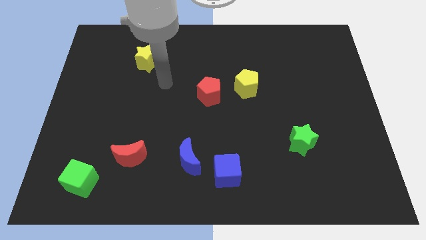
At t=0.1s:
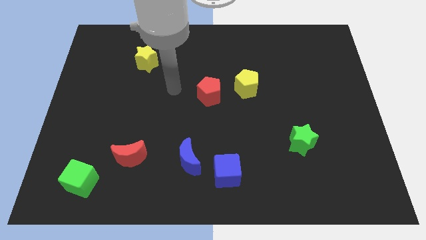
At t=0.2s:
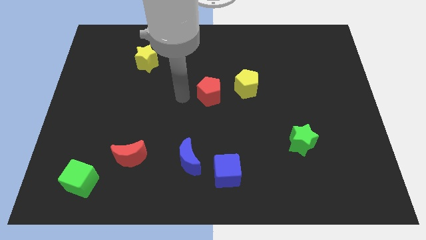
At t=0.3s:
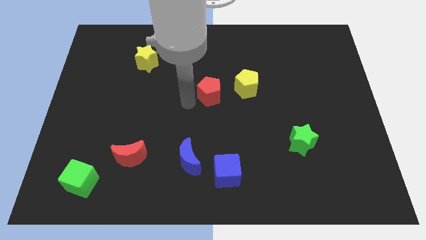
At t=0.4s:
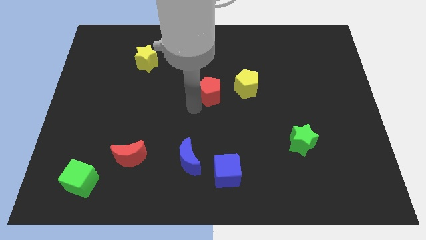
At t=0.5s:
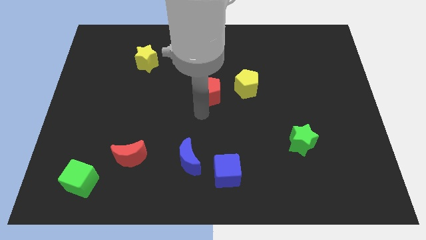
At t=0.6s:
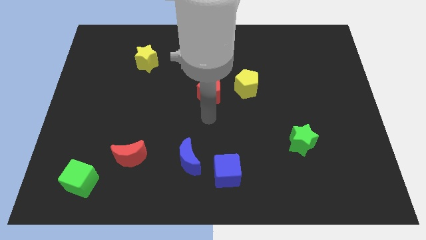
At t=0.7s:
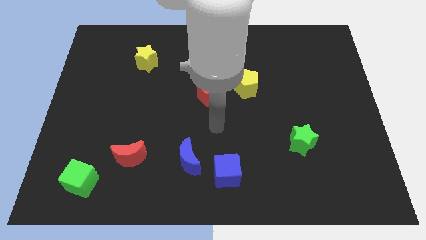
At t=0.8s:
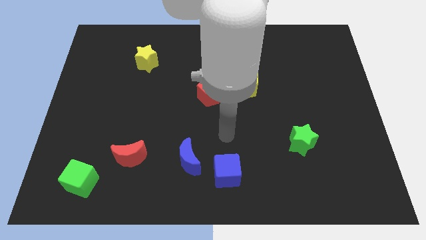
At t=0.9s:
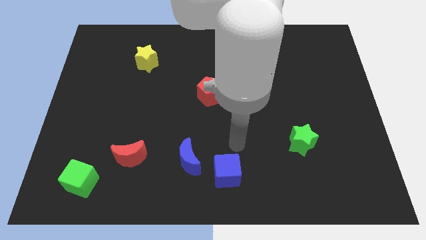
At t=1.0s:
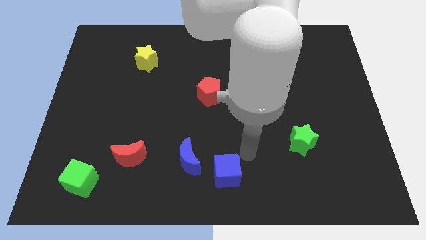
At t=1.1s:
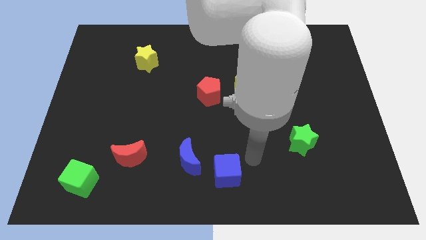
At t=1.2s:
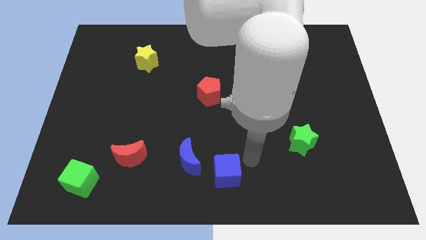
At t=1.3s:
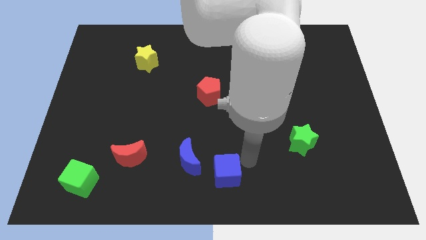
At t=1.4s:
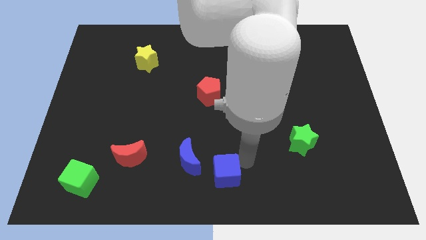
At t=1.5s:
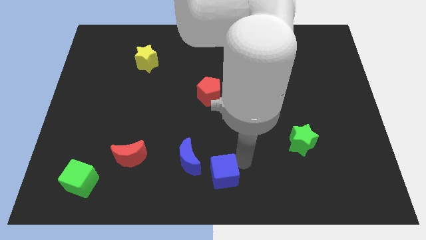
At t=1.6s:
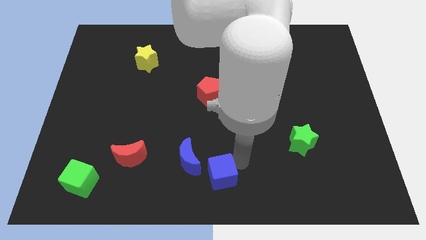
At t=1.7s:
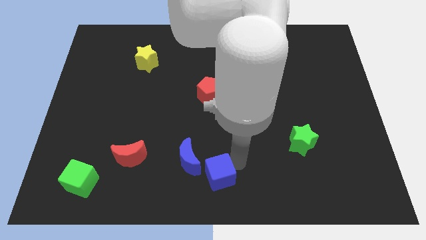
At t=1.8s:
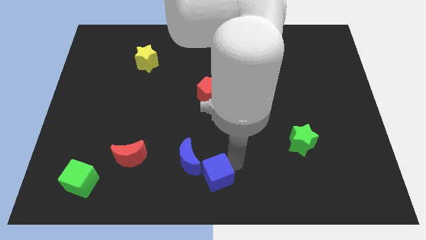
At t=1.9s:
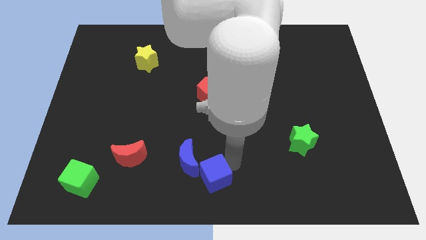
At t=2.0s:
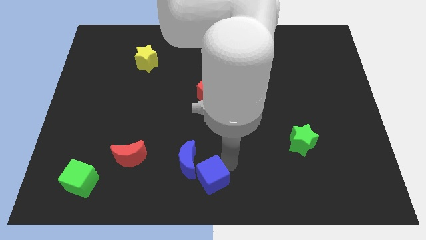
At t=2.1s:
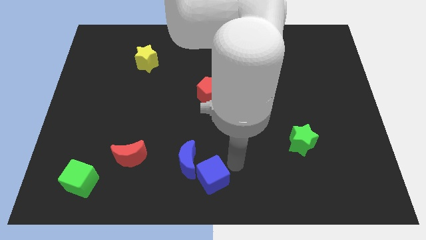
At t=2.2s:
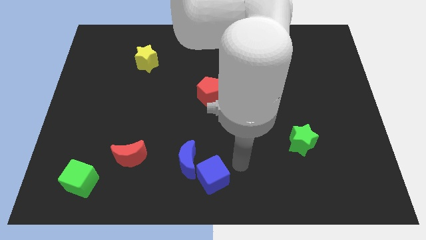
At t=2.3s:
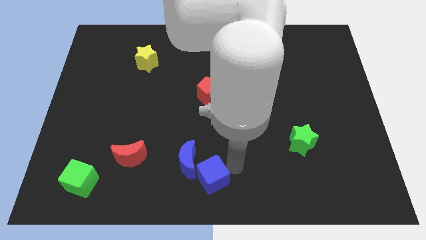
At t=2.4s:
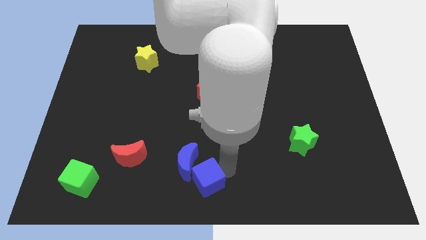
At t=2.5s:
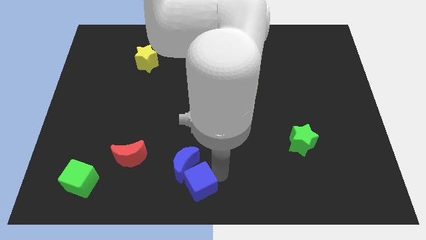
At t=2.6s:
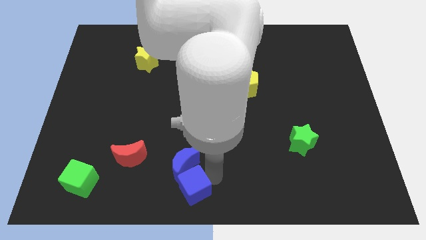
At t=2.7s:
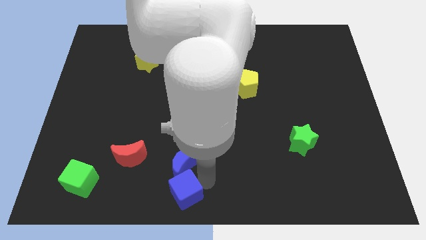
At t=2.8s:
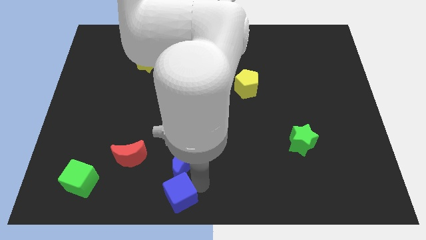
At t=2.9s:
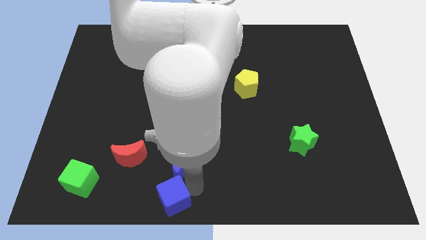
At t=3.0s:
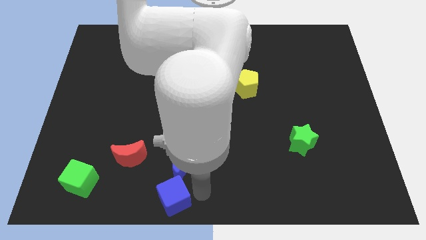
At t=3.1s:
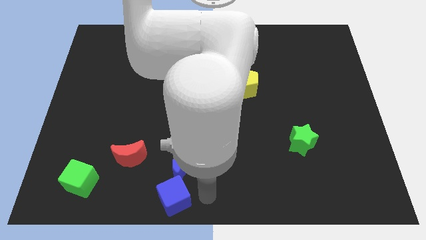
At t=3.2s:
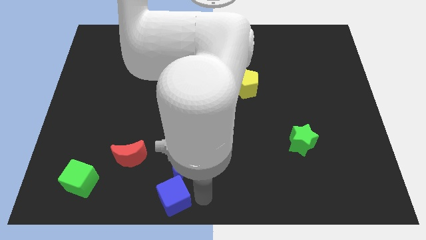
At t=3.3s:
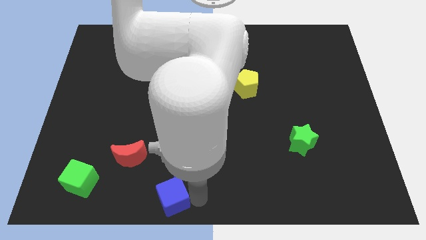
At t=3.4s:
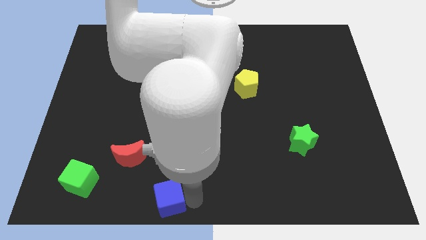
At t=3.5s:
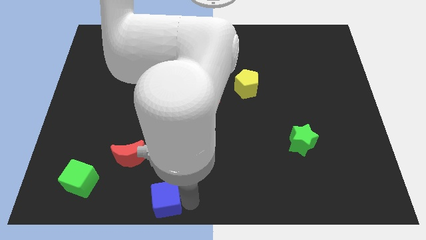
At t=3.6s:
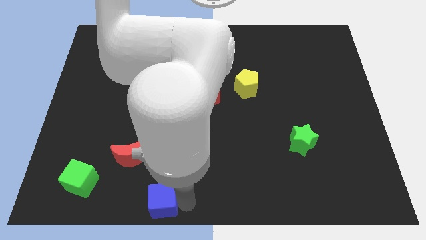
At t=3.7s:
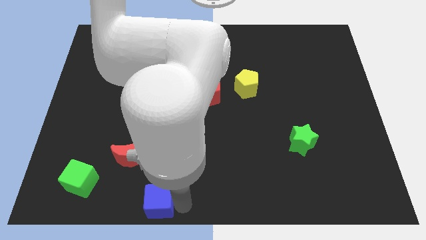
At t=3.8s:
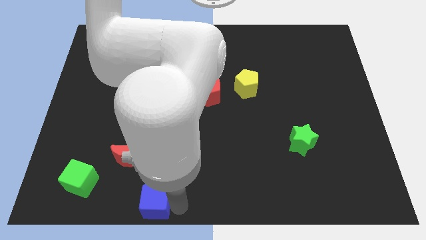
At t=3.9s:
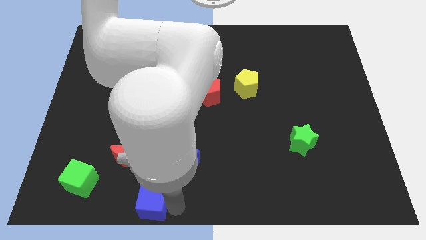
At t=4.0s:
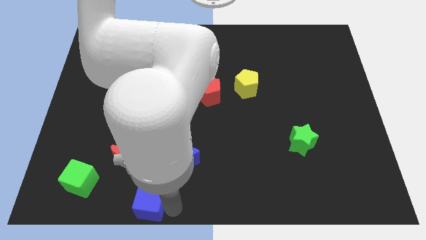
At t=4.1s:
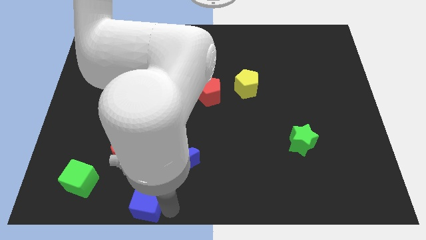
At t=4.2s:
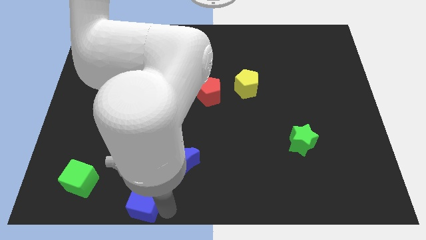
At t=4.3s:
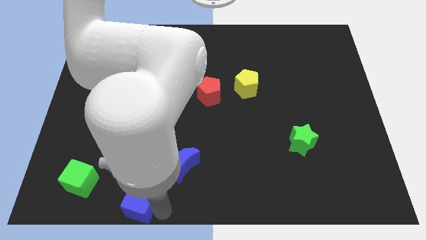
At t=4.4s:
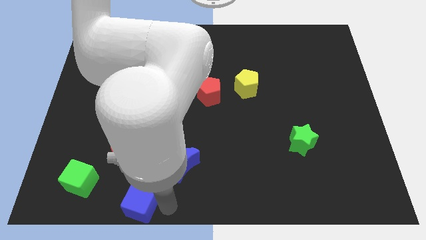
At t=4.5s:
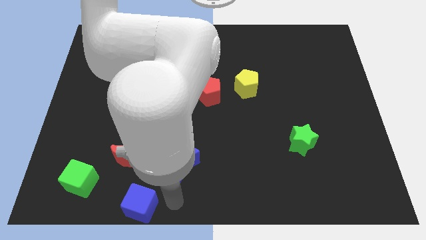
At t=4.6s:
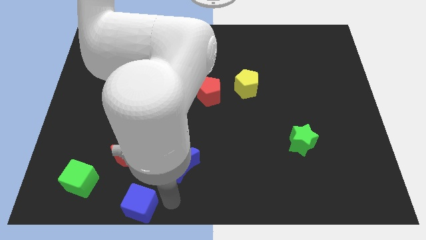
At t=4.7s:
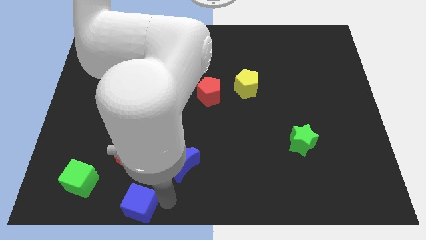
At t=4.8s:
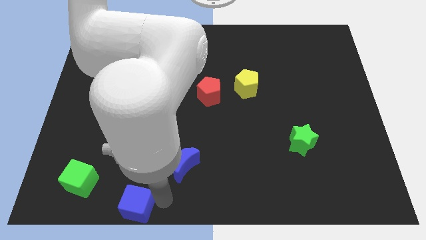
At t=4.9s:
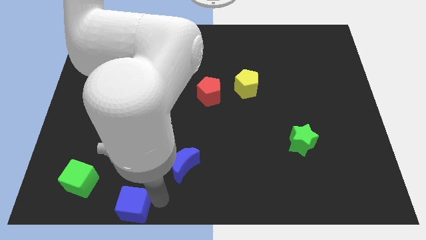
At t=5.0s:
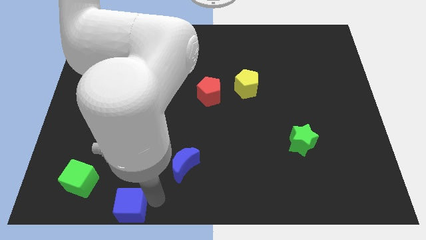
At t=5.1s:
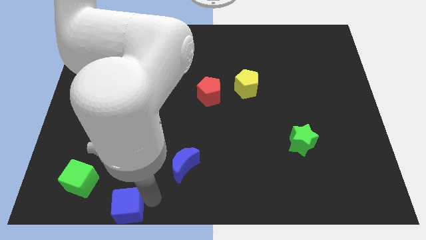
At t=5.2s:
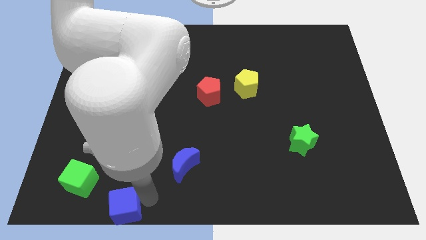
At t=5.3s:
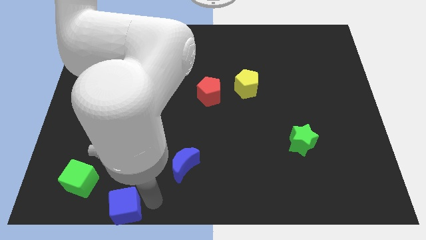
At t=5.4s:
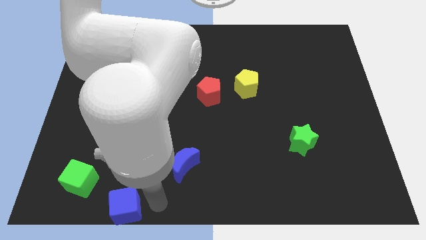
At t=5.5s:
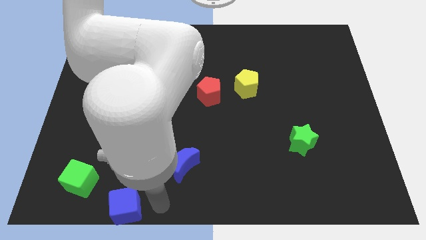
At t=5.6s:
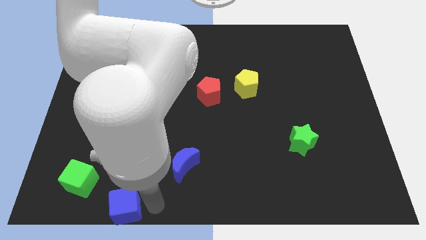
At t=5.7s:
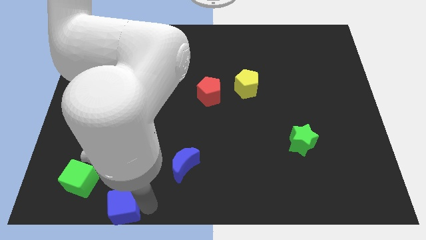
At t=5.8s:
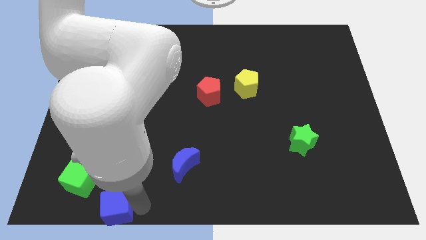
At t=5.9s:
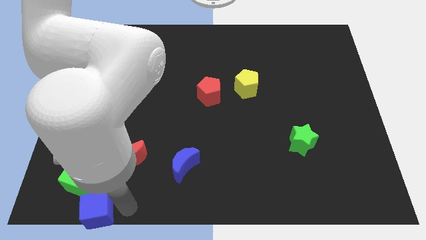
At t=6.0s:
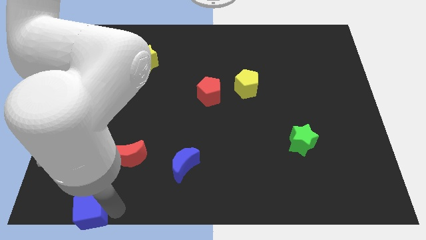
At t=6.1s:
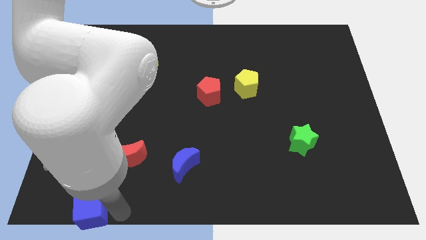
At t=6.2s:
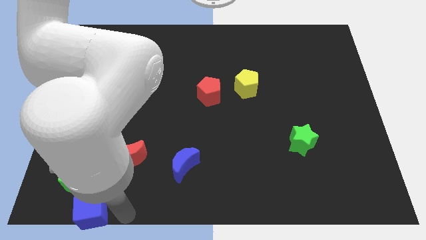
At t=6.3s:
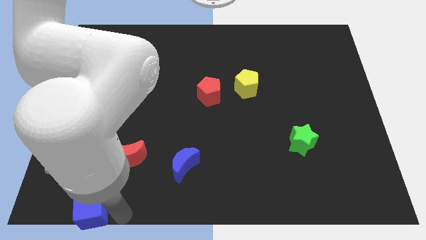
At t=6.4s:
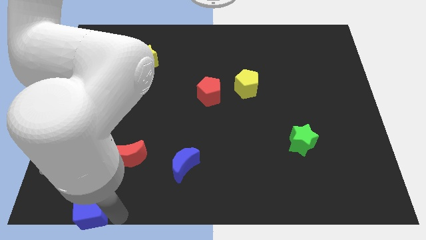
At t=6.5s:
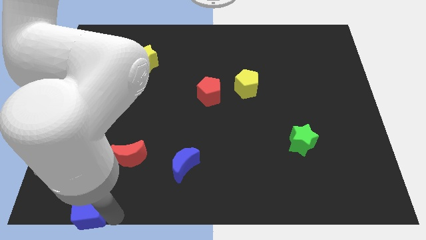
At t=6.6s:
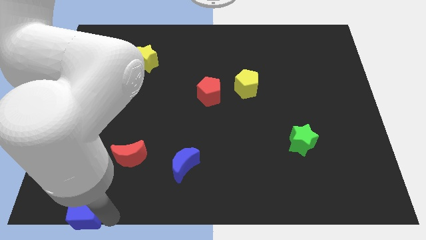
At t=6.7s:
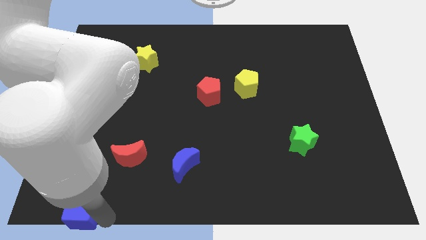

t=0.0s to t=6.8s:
put the blue cube to the bottom left
